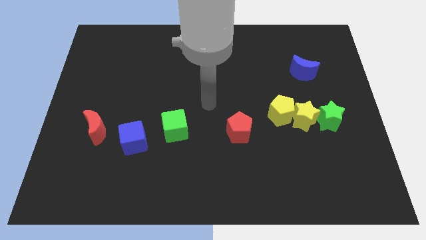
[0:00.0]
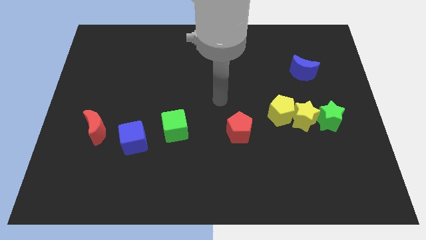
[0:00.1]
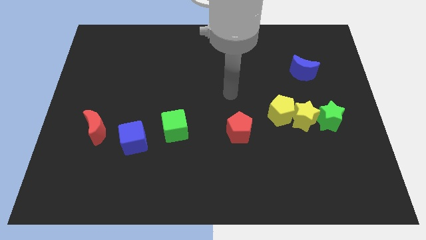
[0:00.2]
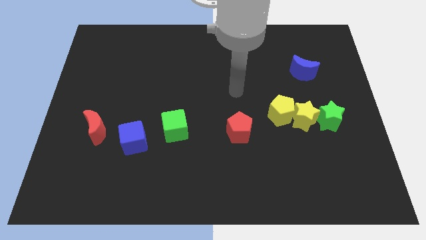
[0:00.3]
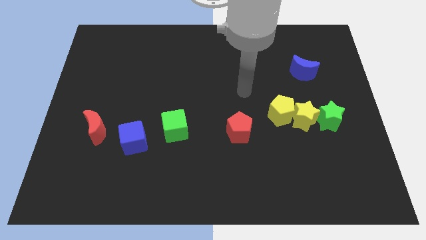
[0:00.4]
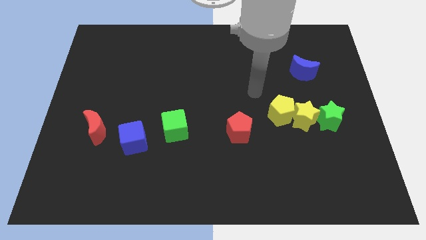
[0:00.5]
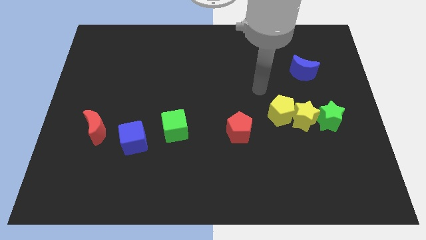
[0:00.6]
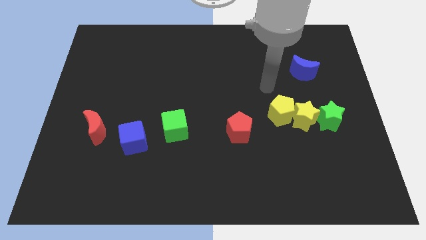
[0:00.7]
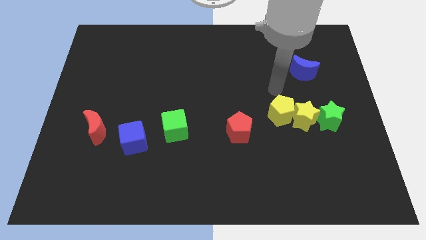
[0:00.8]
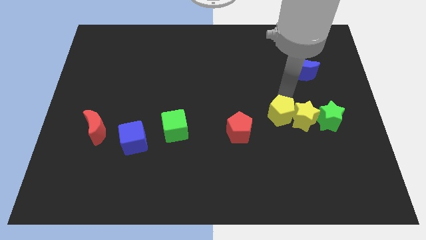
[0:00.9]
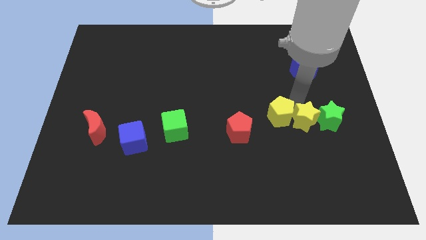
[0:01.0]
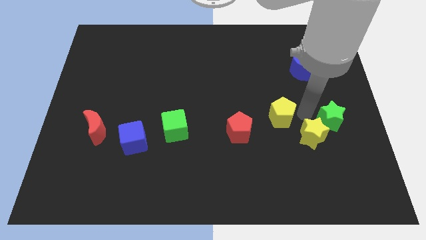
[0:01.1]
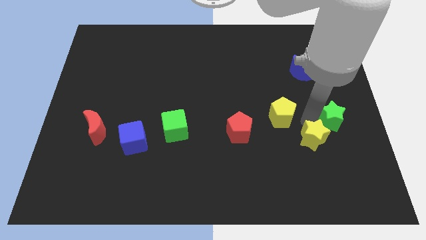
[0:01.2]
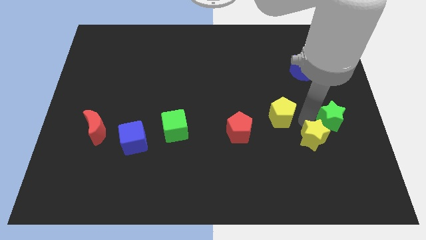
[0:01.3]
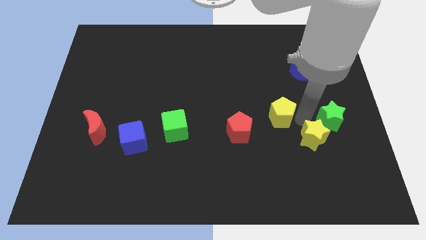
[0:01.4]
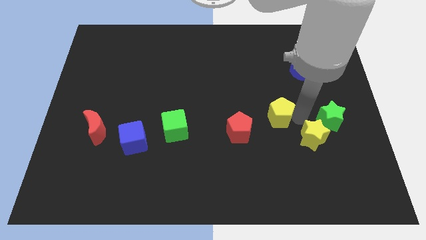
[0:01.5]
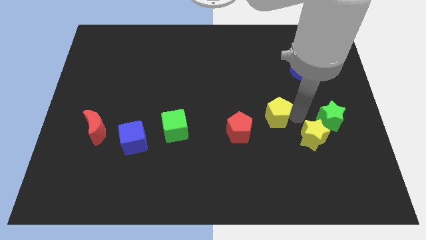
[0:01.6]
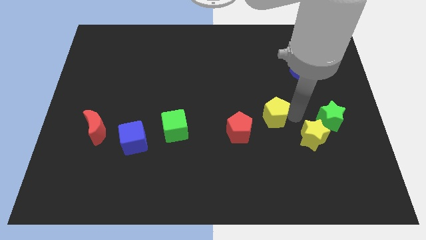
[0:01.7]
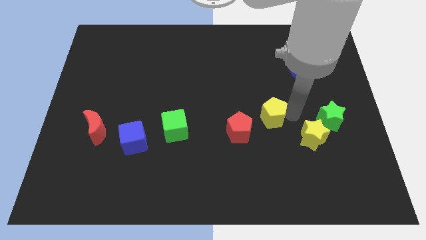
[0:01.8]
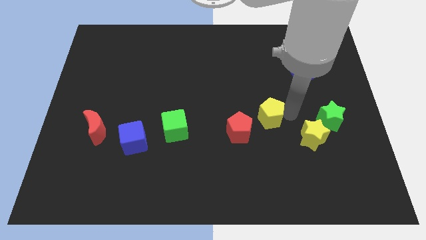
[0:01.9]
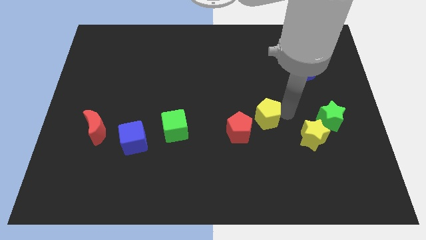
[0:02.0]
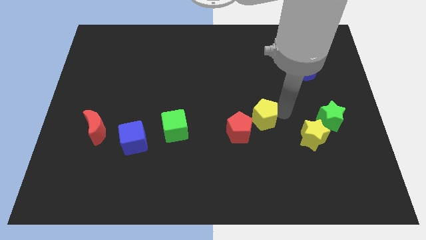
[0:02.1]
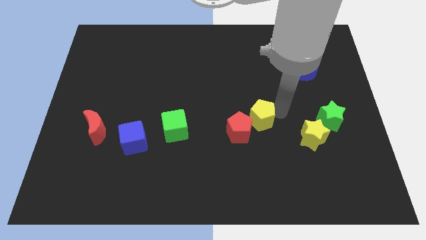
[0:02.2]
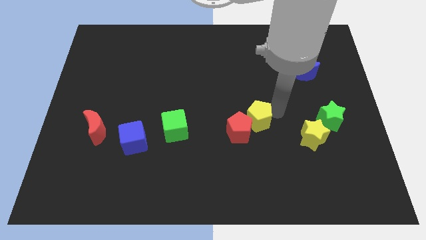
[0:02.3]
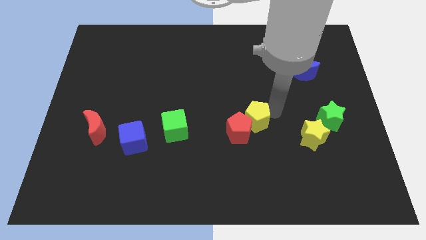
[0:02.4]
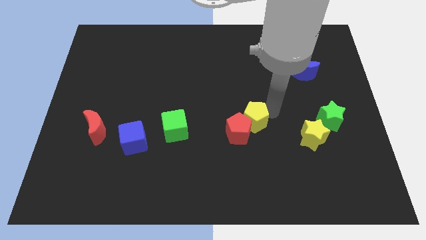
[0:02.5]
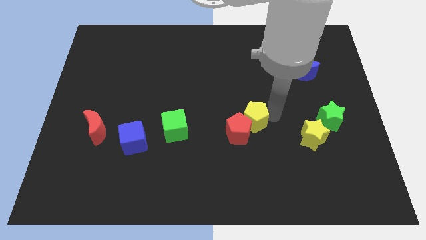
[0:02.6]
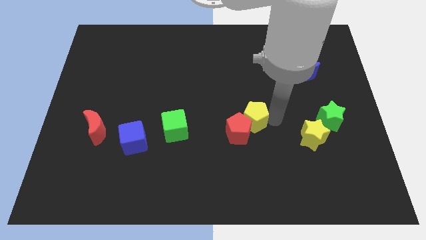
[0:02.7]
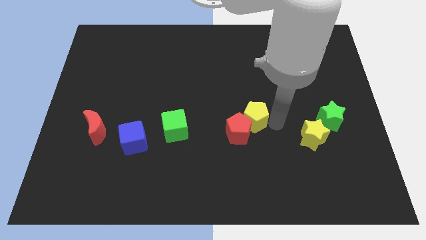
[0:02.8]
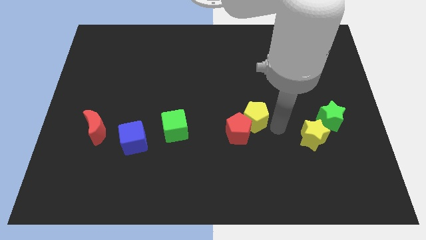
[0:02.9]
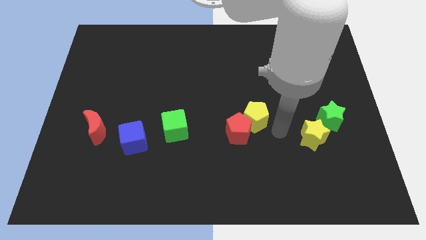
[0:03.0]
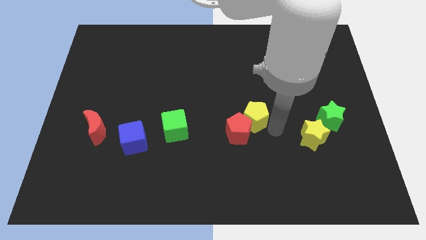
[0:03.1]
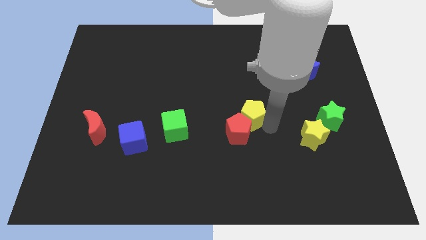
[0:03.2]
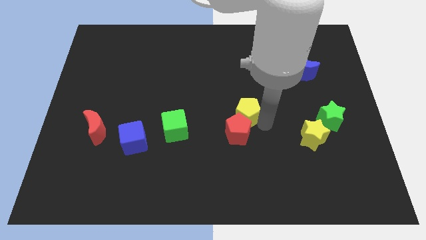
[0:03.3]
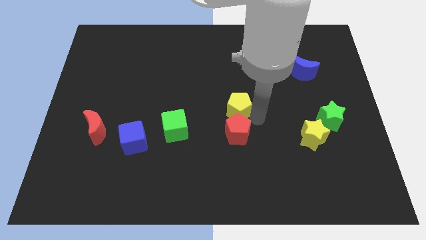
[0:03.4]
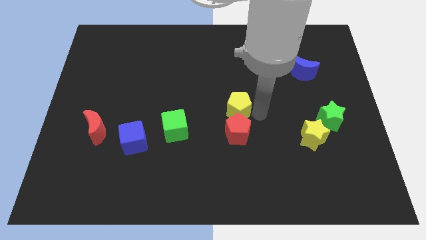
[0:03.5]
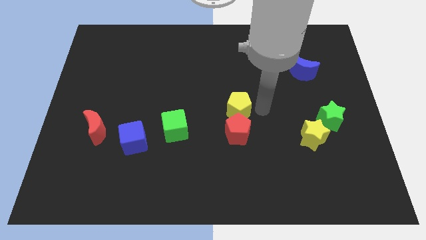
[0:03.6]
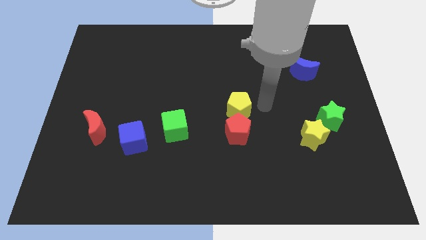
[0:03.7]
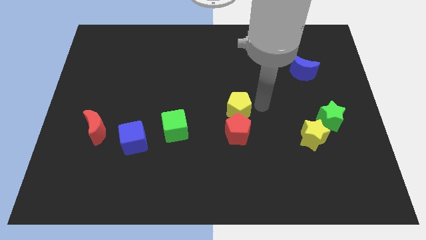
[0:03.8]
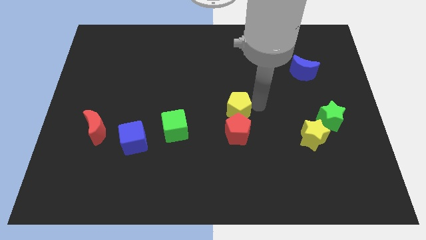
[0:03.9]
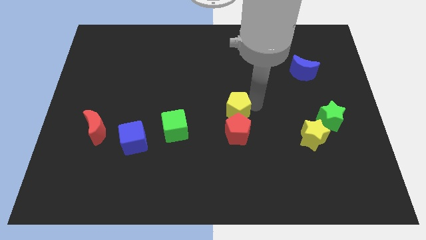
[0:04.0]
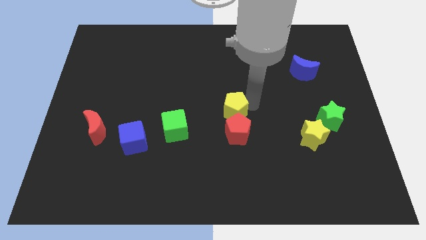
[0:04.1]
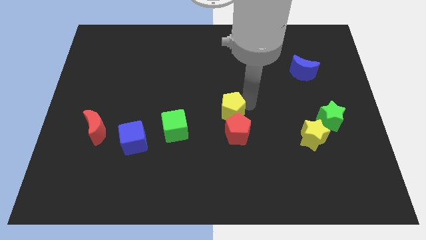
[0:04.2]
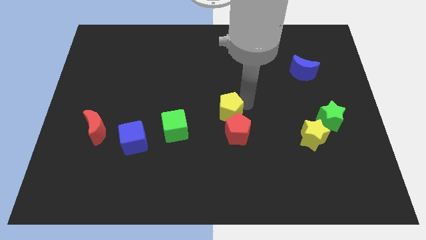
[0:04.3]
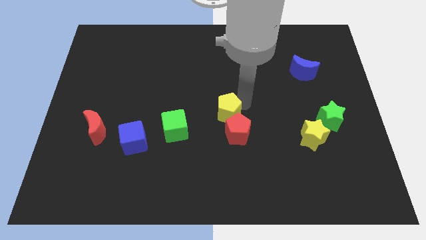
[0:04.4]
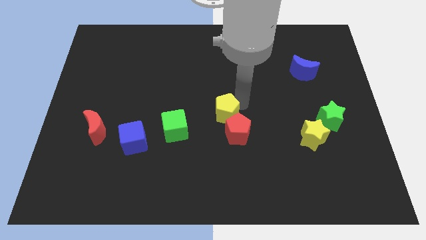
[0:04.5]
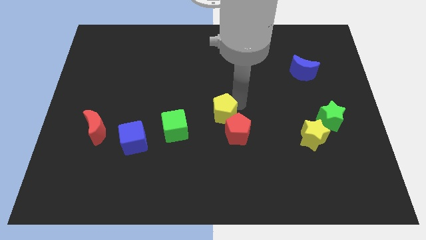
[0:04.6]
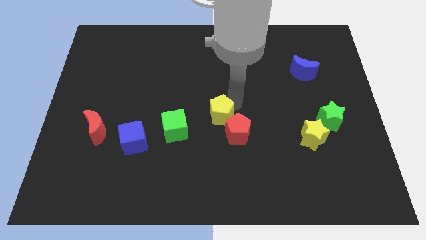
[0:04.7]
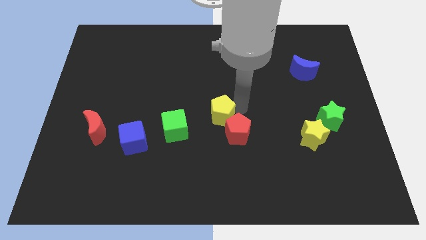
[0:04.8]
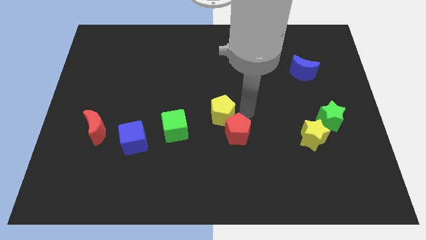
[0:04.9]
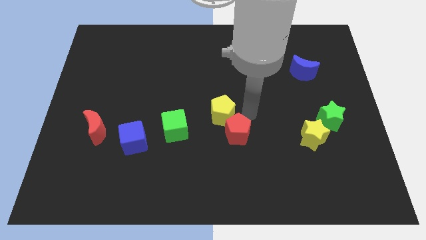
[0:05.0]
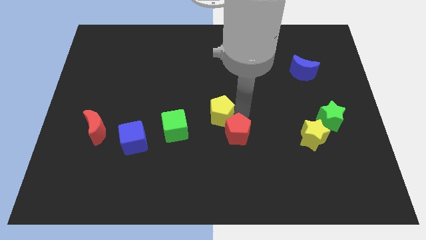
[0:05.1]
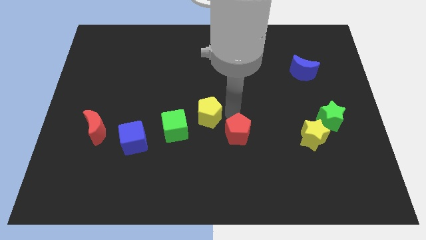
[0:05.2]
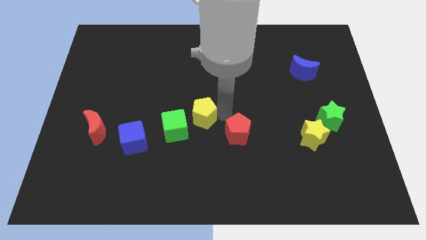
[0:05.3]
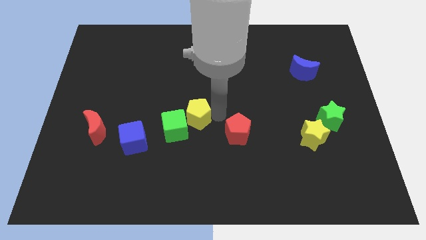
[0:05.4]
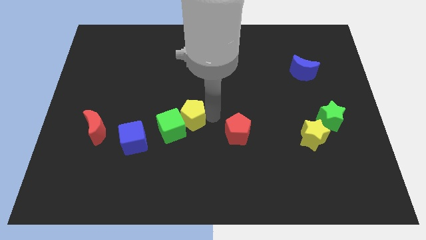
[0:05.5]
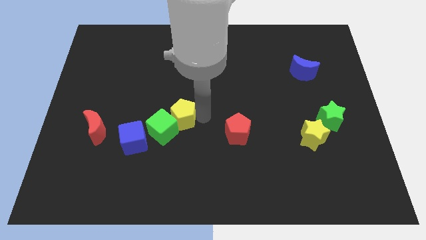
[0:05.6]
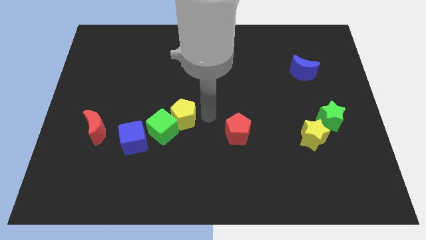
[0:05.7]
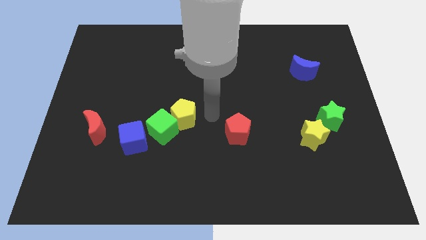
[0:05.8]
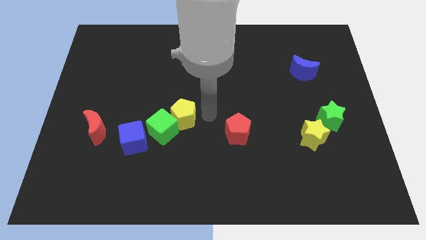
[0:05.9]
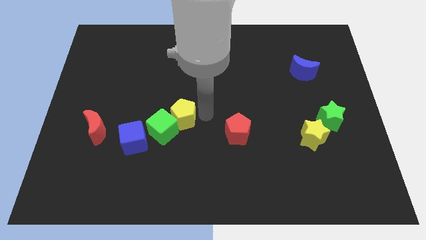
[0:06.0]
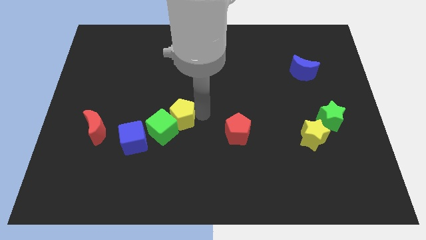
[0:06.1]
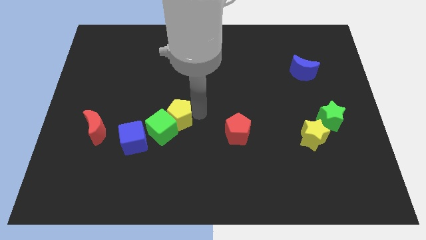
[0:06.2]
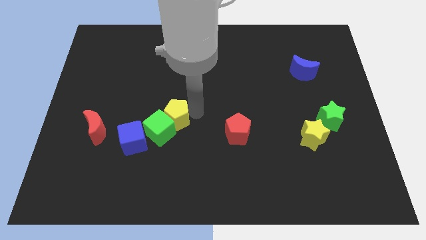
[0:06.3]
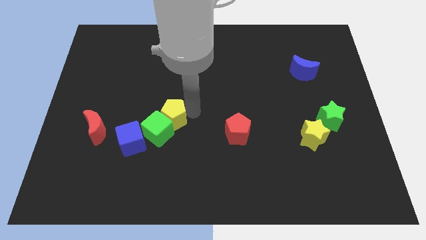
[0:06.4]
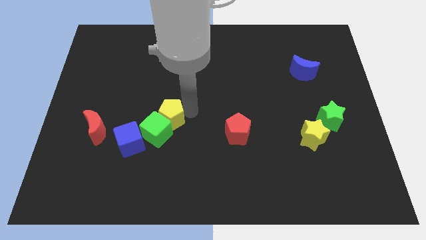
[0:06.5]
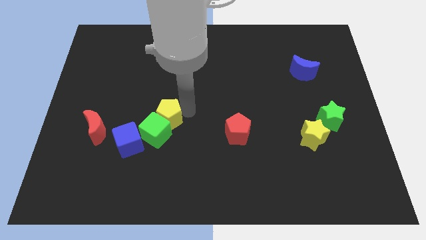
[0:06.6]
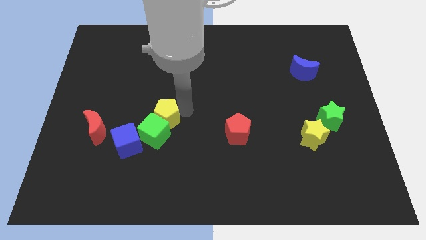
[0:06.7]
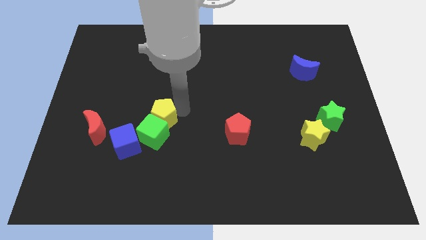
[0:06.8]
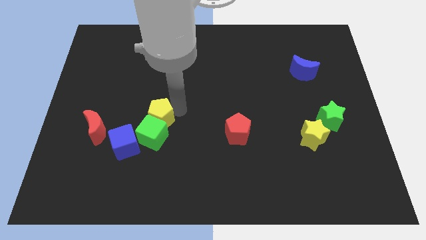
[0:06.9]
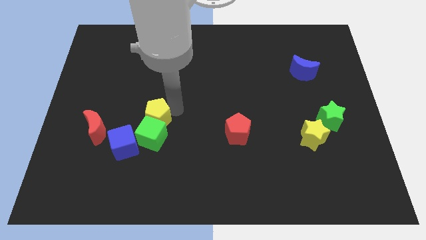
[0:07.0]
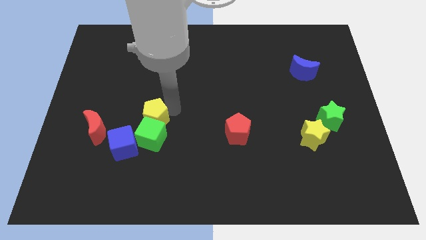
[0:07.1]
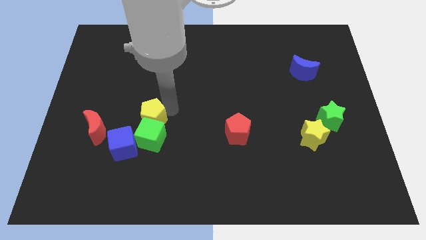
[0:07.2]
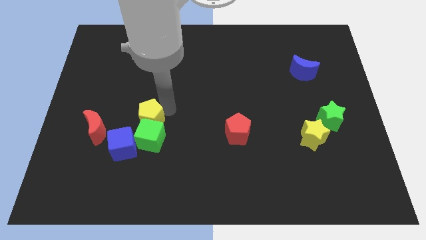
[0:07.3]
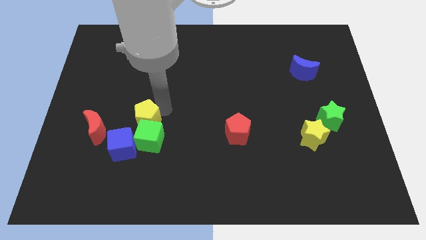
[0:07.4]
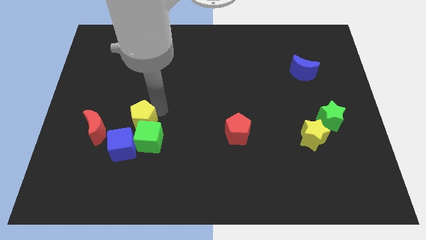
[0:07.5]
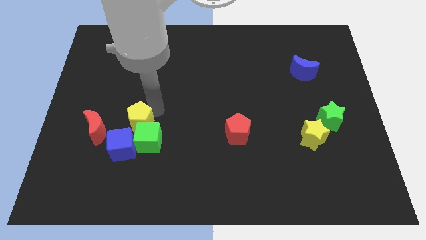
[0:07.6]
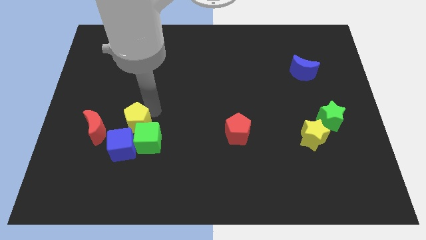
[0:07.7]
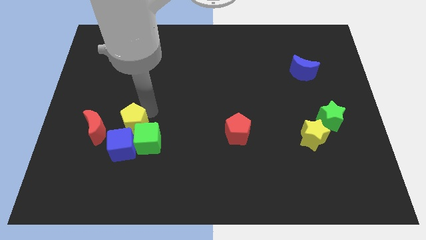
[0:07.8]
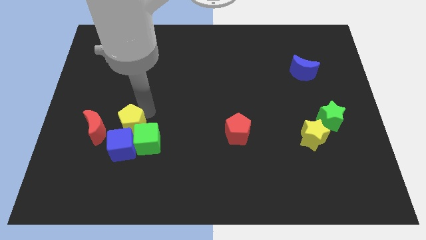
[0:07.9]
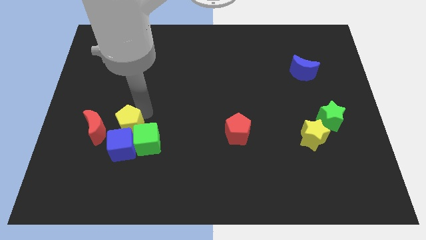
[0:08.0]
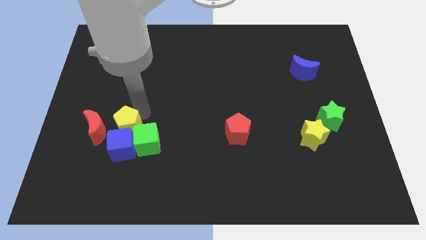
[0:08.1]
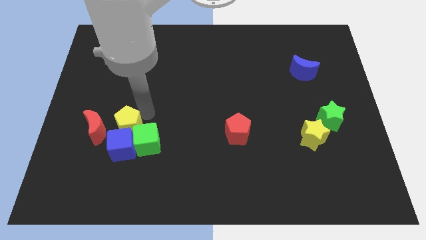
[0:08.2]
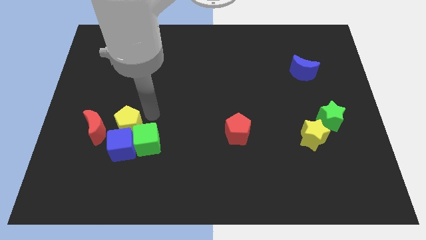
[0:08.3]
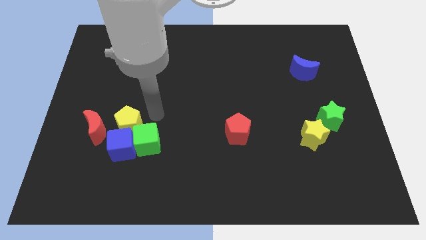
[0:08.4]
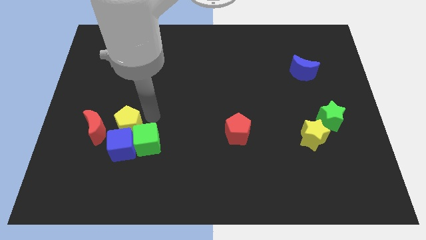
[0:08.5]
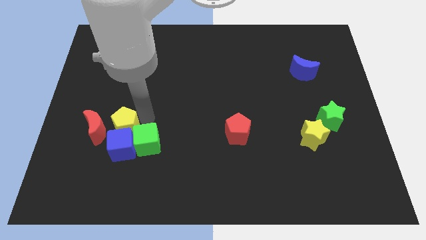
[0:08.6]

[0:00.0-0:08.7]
put the yellow pentagon diagonally down and to the right of the red moon
